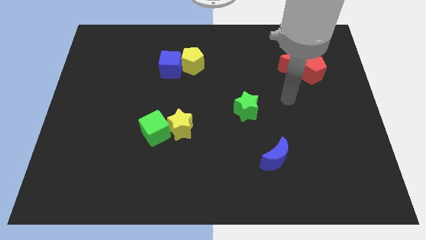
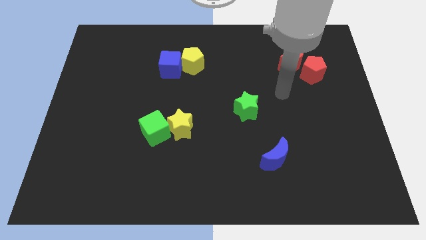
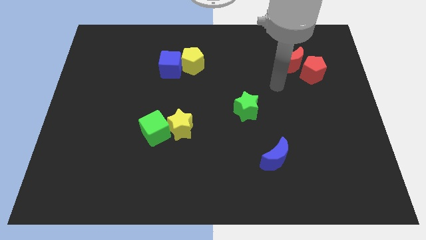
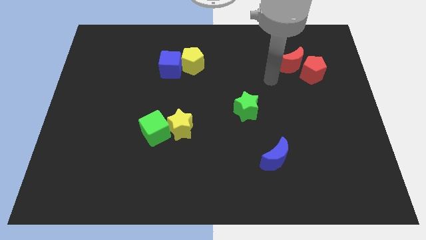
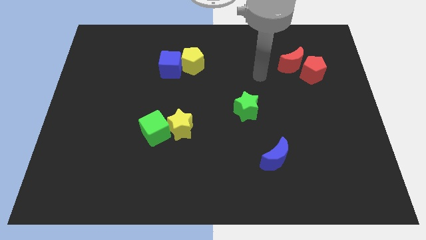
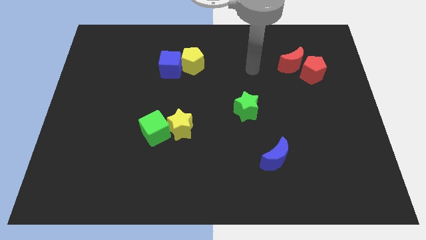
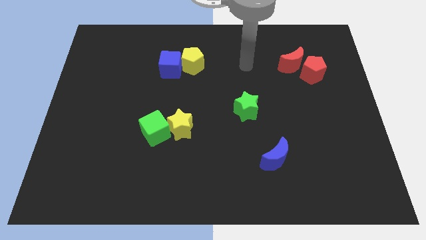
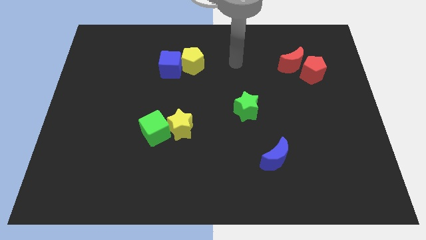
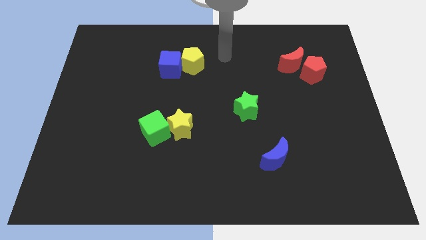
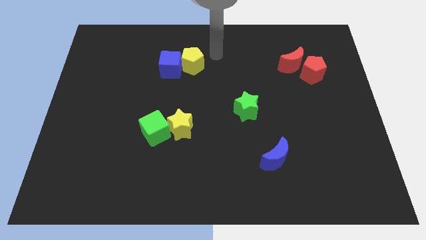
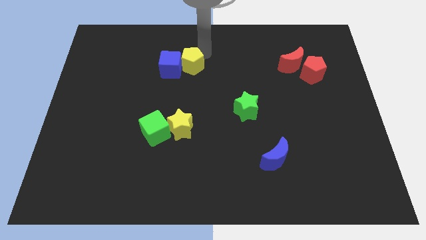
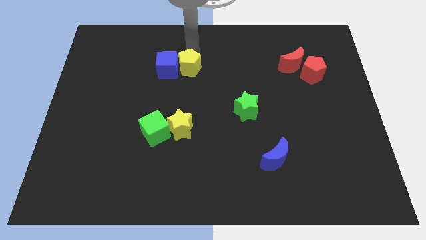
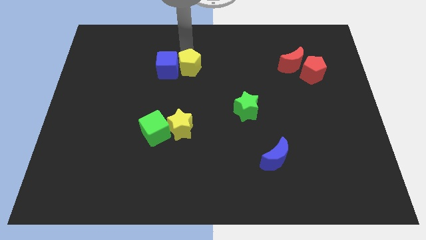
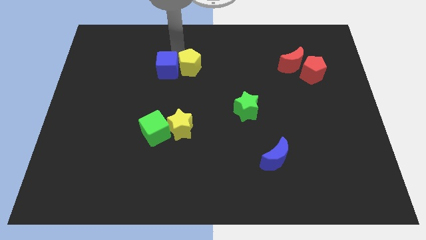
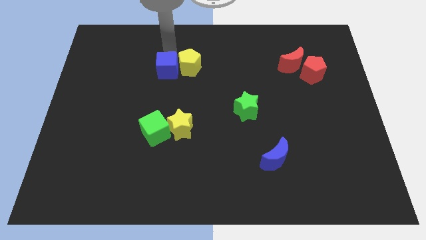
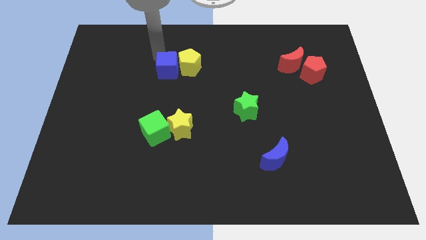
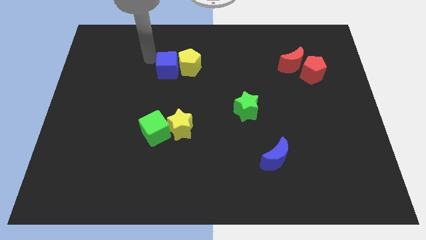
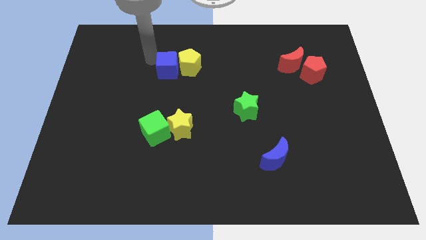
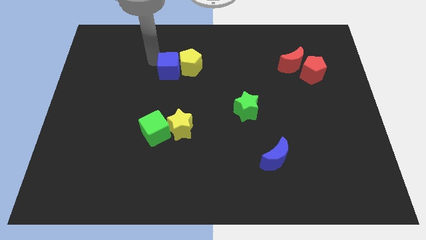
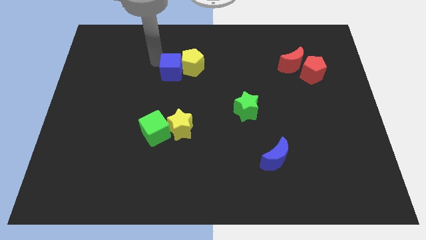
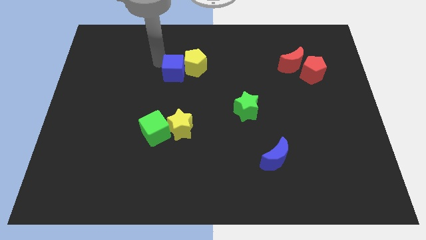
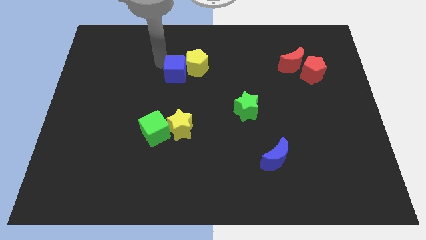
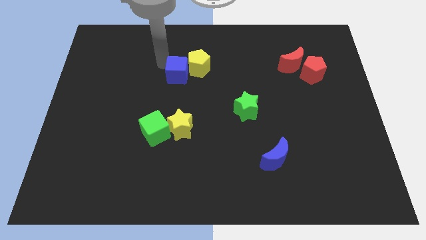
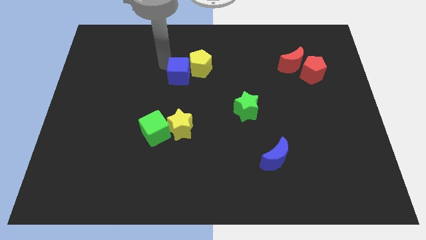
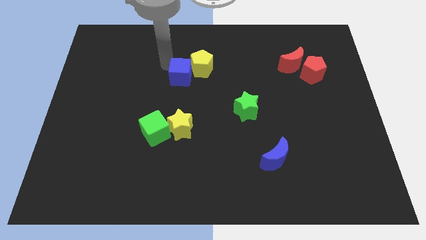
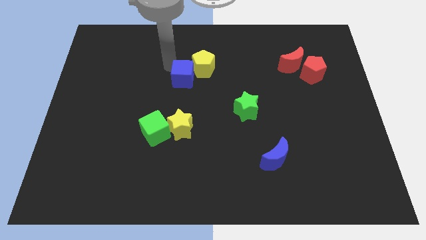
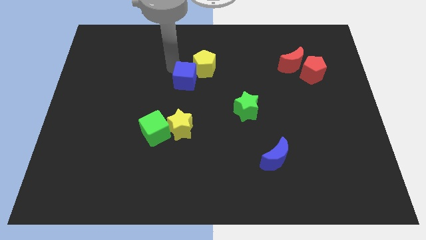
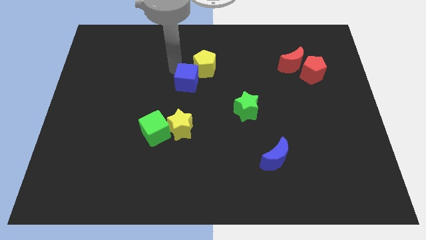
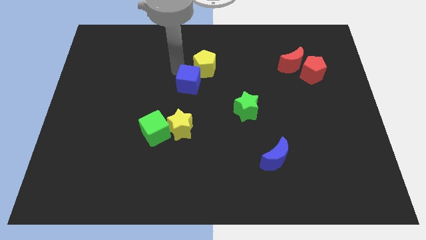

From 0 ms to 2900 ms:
push the blue cube somewhat downwards and to the right

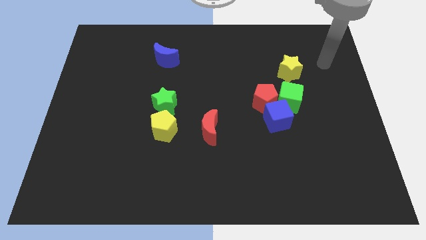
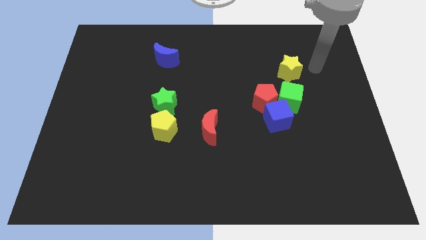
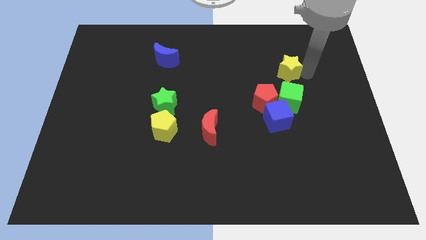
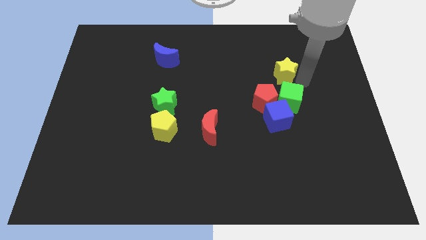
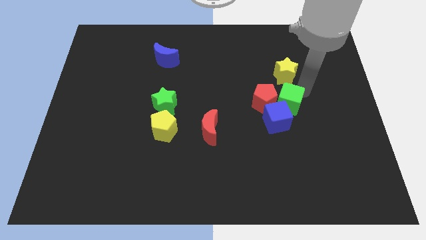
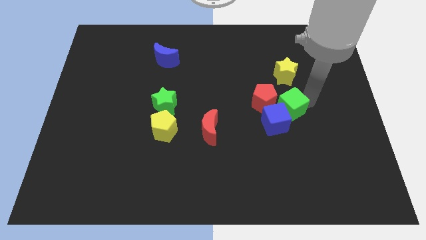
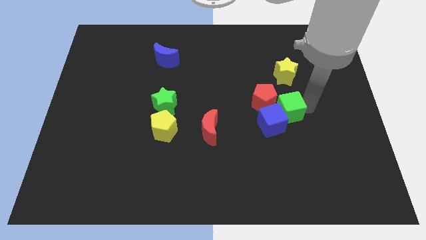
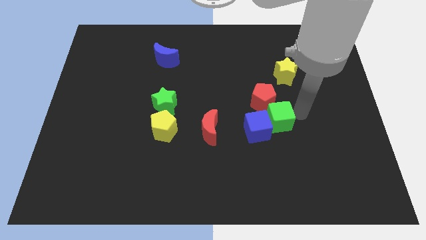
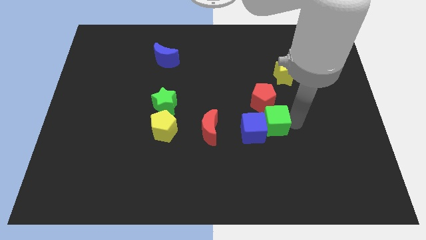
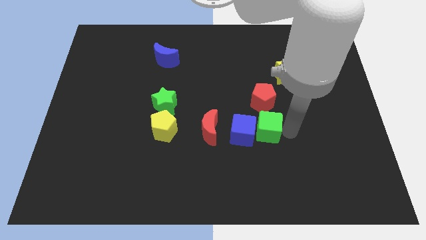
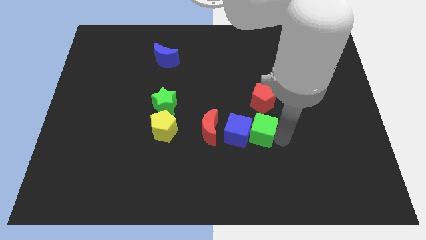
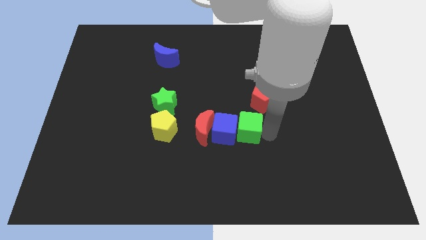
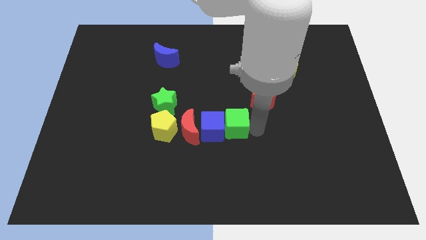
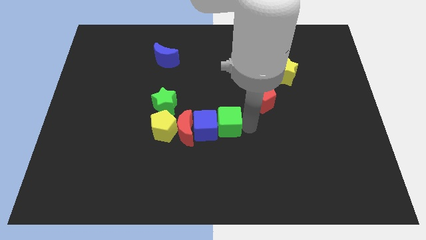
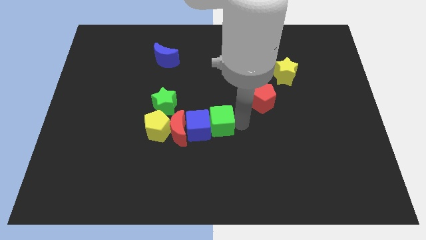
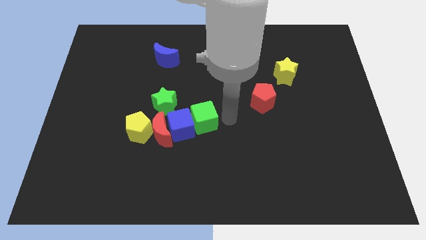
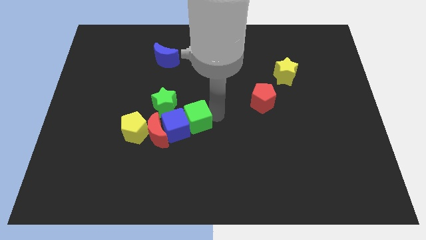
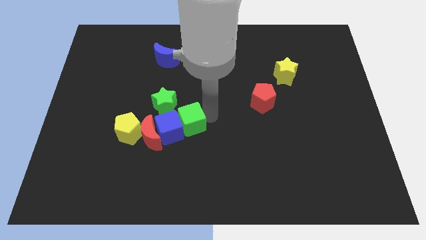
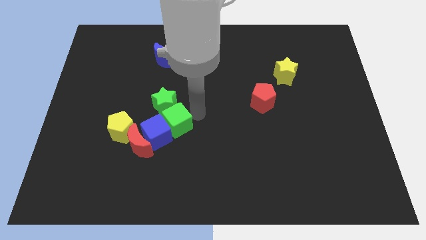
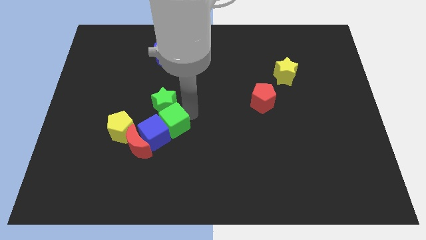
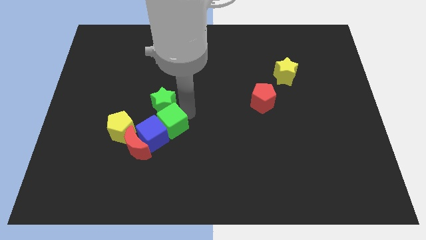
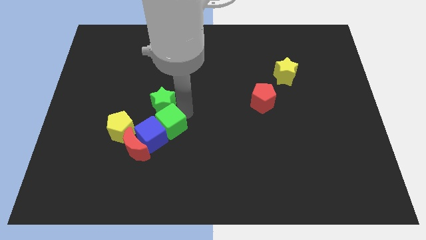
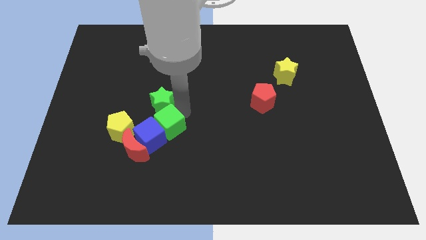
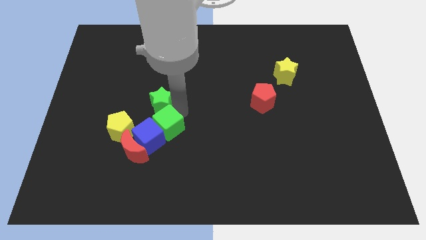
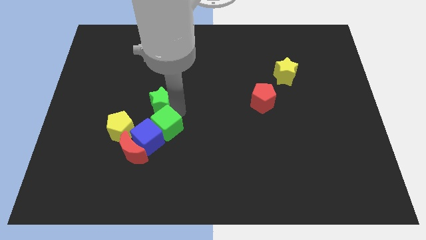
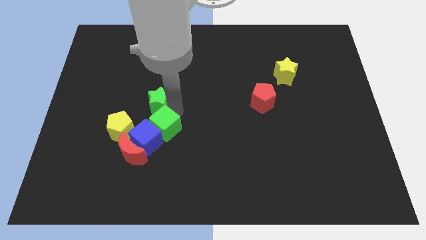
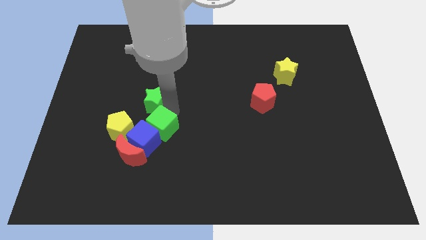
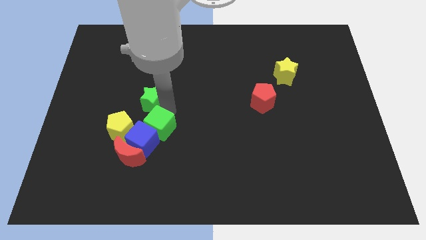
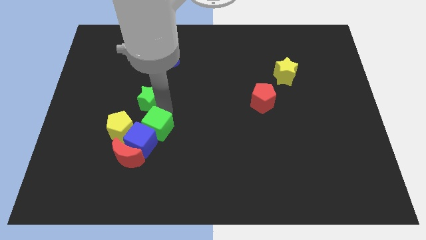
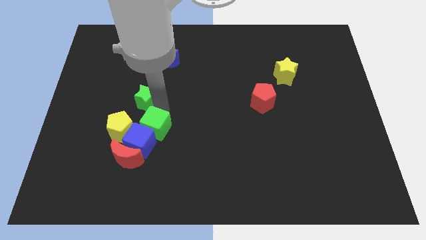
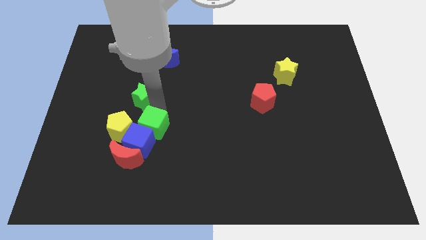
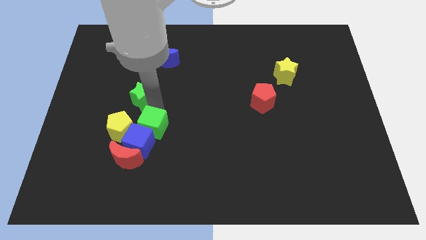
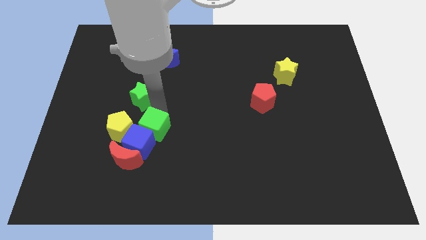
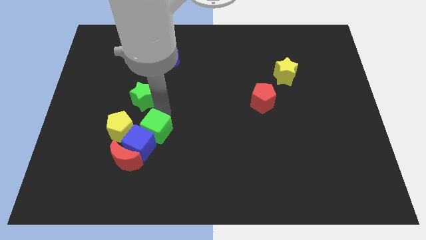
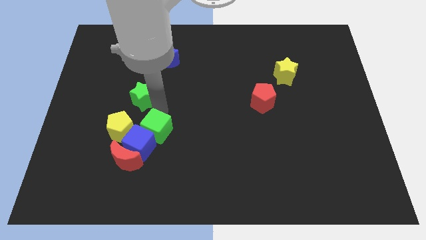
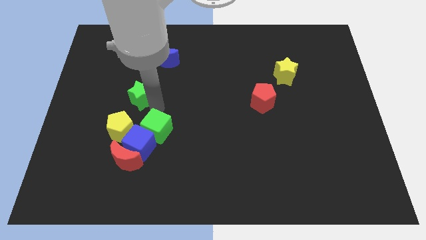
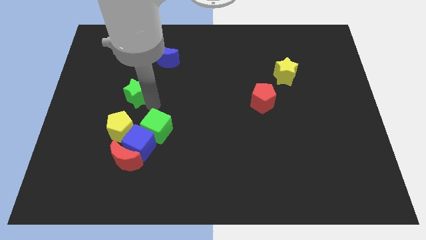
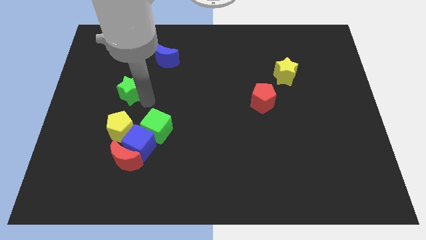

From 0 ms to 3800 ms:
slide the green star a bit up and then left

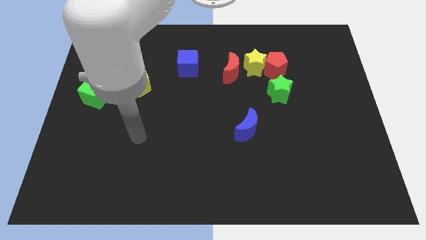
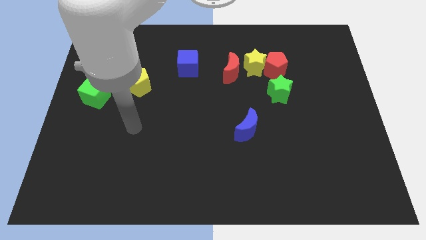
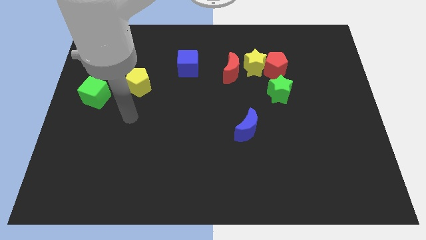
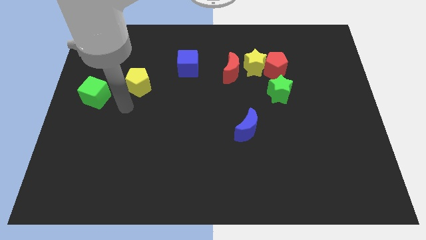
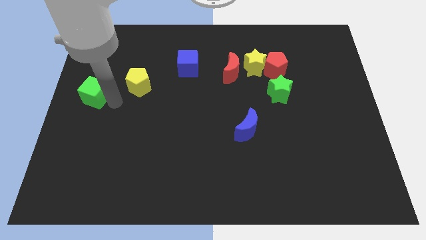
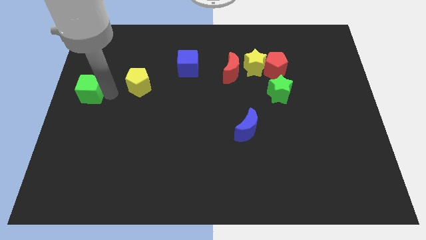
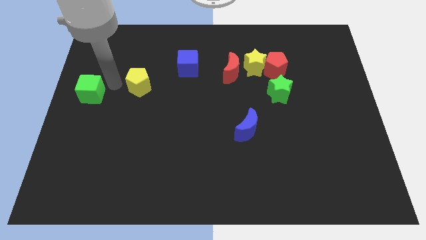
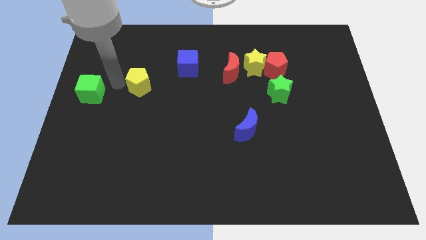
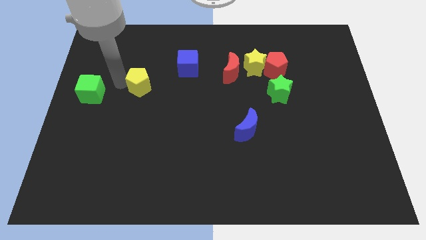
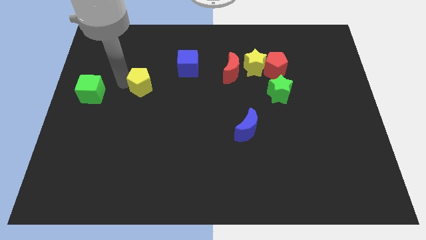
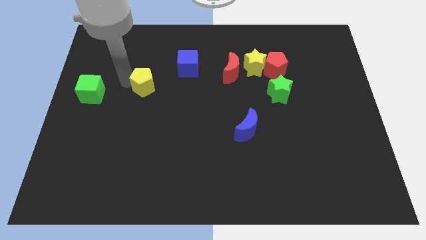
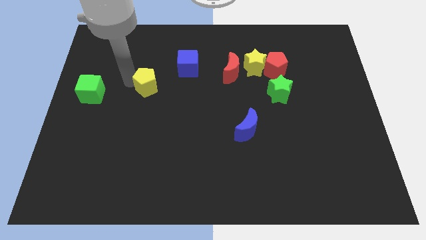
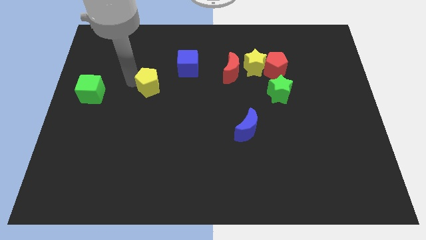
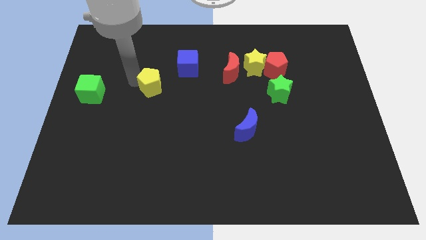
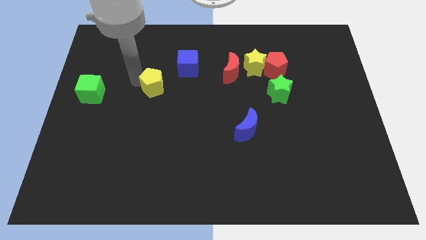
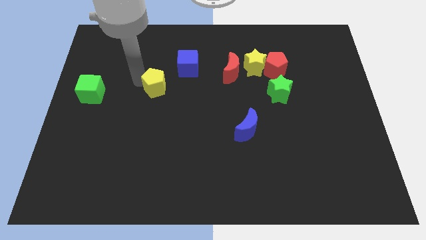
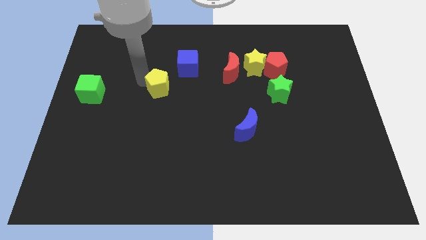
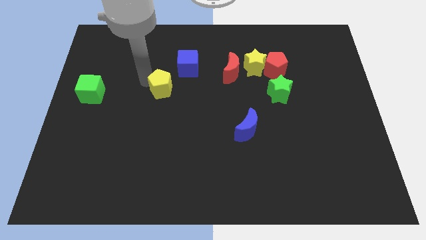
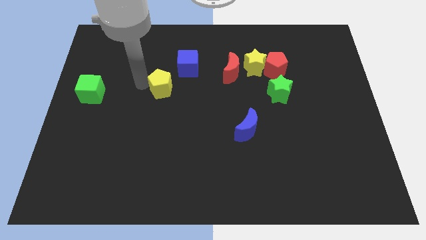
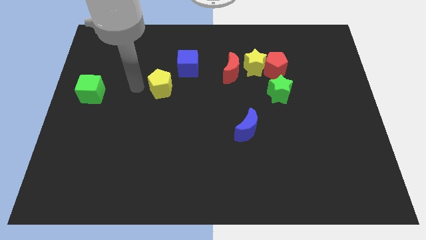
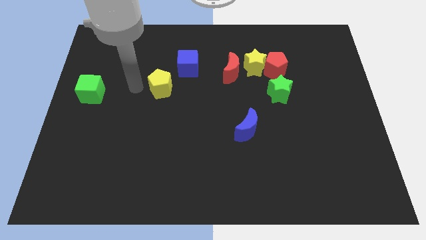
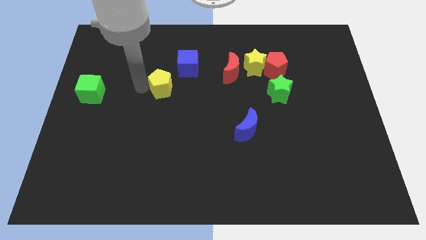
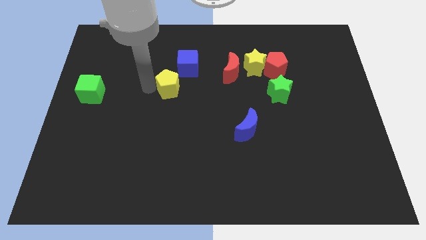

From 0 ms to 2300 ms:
slightly move the yellow pentagon to the right
